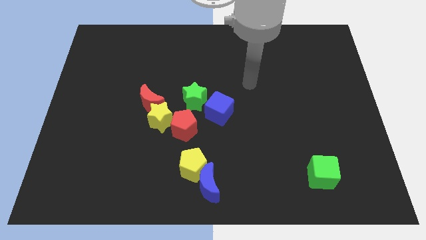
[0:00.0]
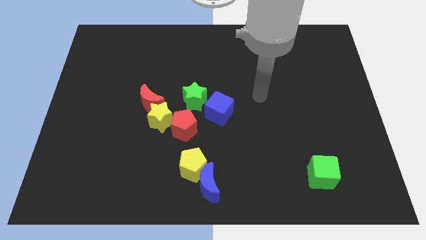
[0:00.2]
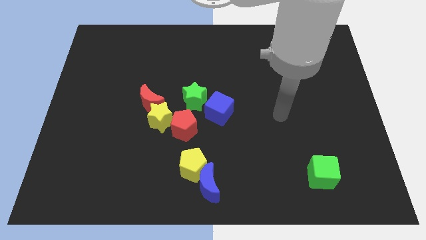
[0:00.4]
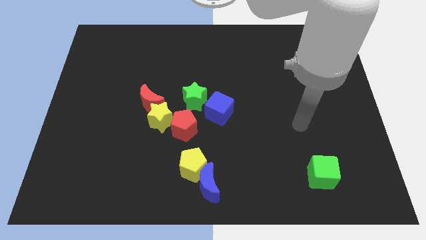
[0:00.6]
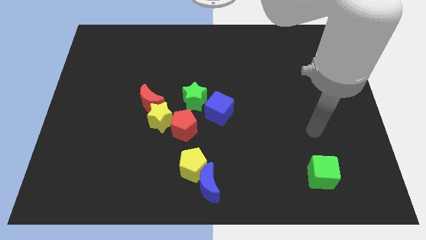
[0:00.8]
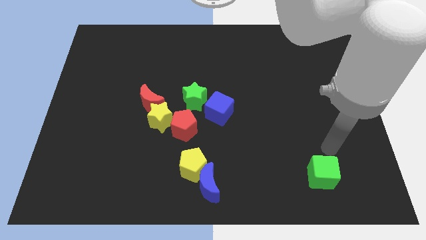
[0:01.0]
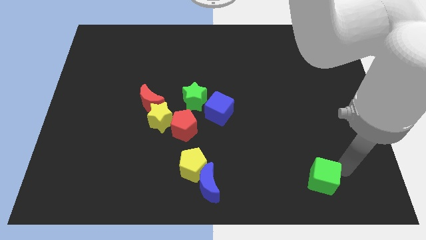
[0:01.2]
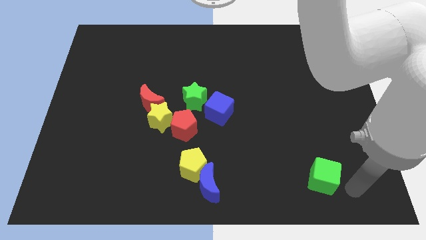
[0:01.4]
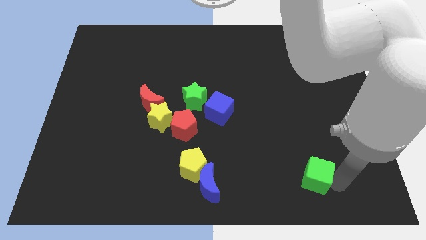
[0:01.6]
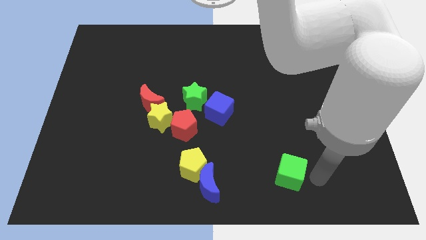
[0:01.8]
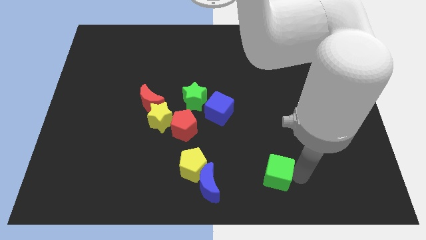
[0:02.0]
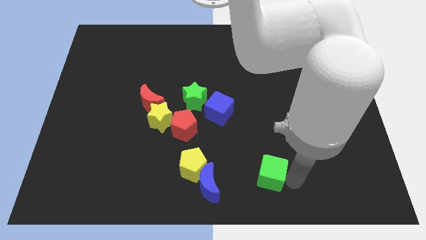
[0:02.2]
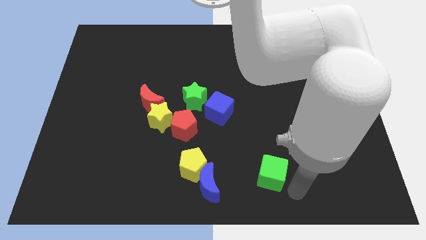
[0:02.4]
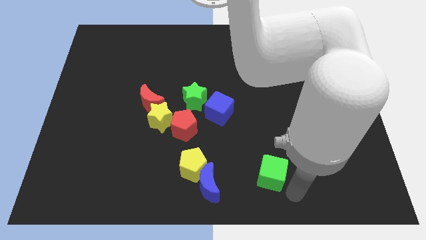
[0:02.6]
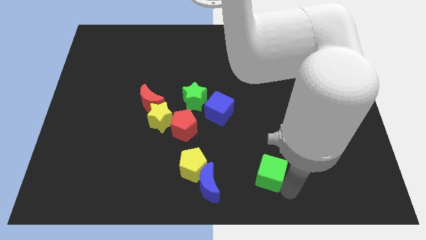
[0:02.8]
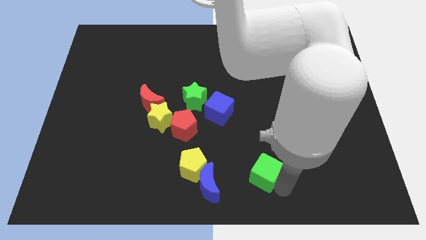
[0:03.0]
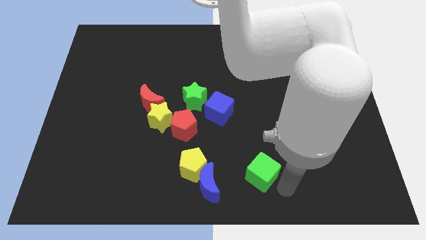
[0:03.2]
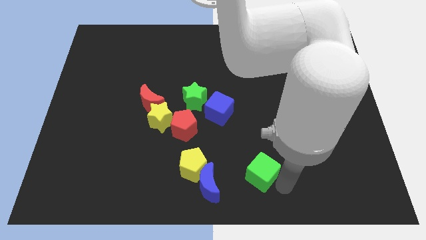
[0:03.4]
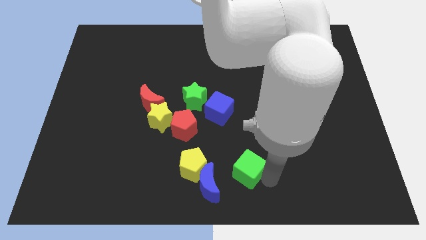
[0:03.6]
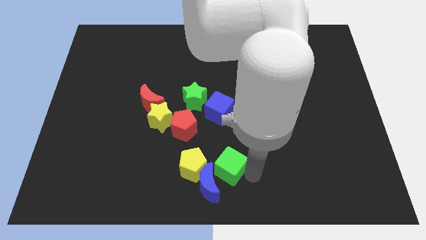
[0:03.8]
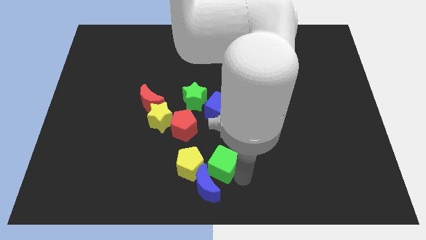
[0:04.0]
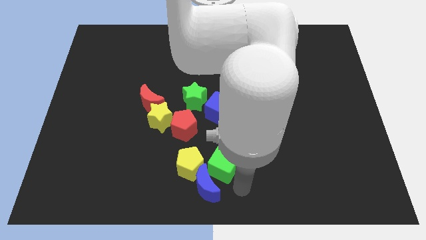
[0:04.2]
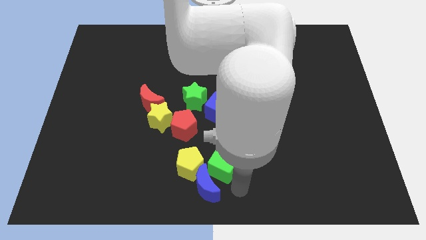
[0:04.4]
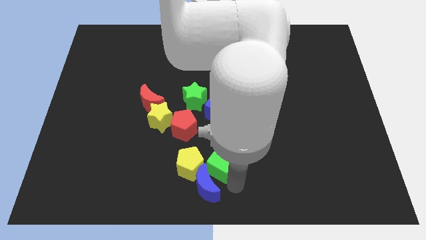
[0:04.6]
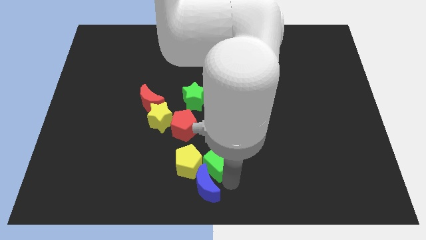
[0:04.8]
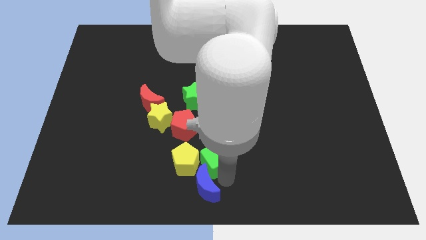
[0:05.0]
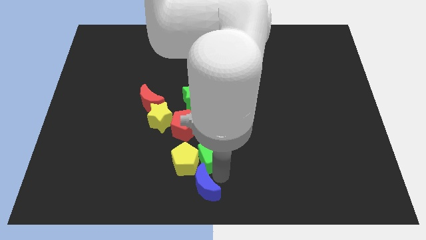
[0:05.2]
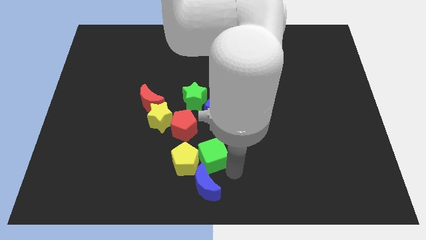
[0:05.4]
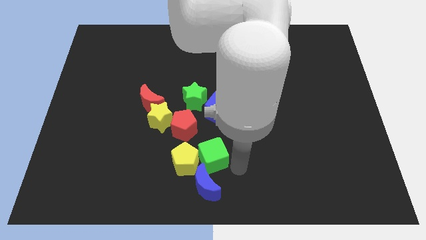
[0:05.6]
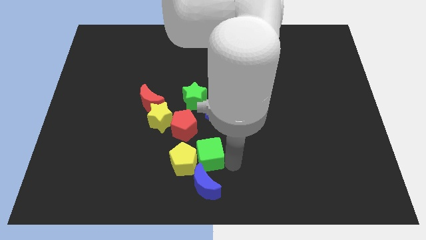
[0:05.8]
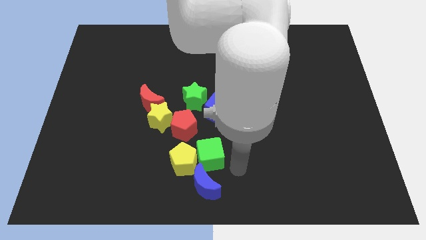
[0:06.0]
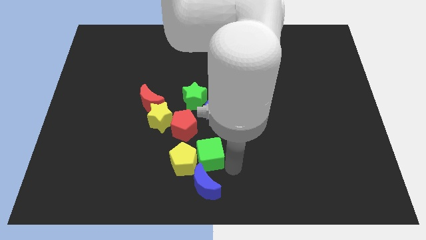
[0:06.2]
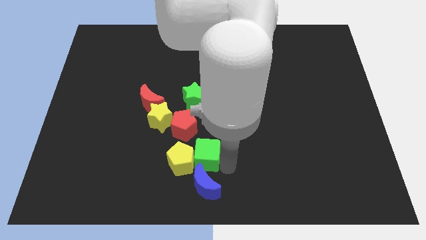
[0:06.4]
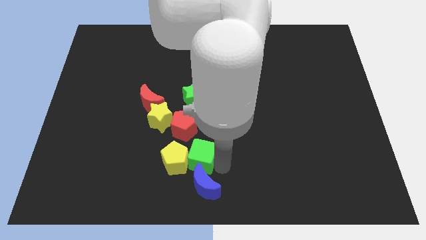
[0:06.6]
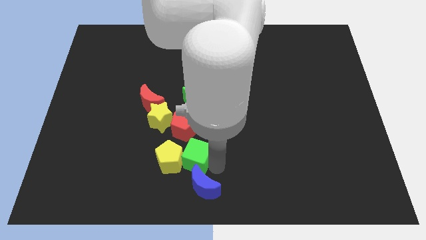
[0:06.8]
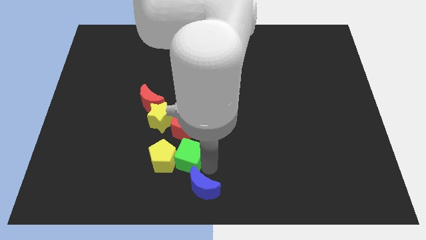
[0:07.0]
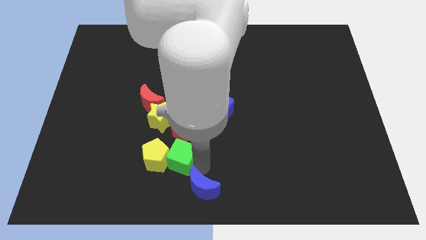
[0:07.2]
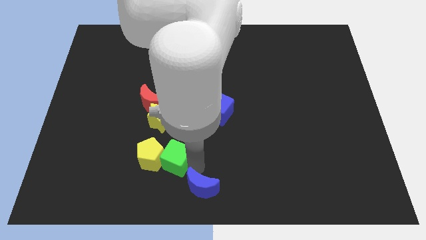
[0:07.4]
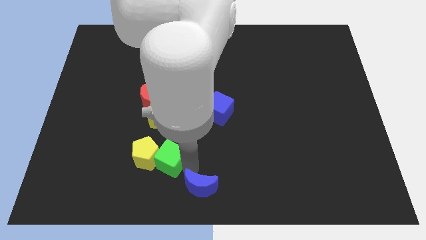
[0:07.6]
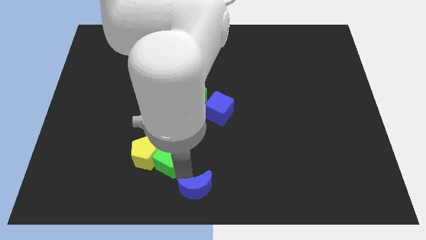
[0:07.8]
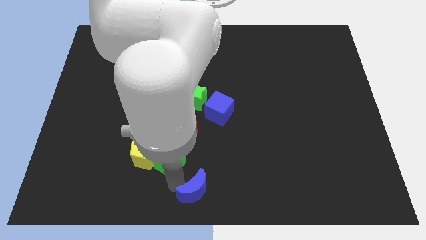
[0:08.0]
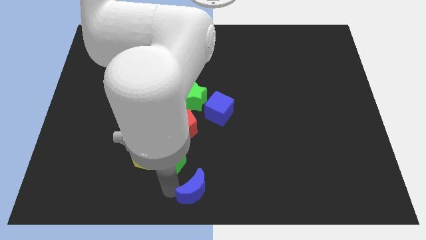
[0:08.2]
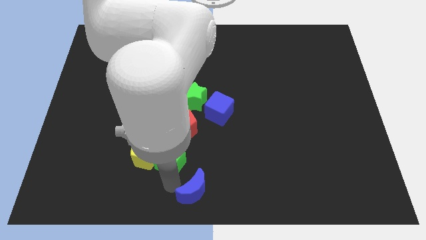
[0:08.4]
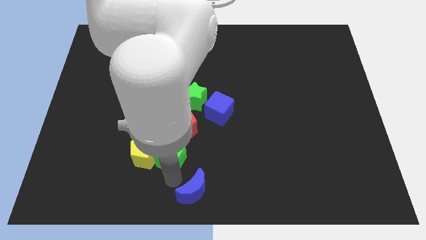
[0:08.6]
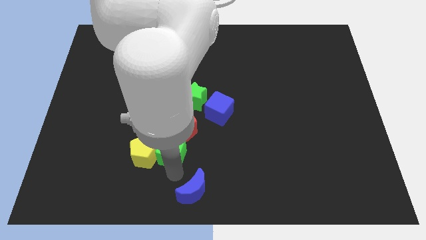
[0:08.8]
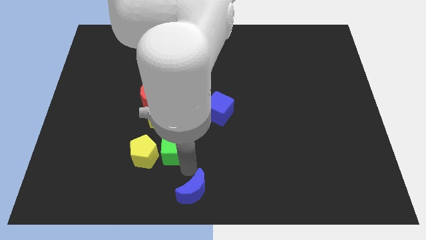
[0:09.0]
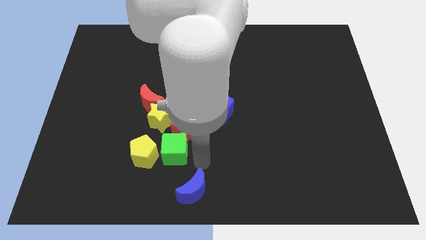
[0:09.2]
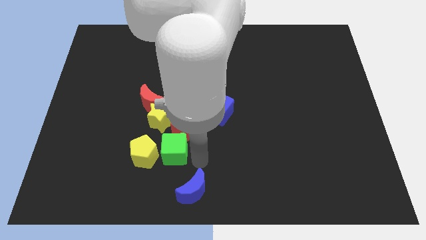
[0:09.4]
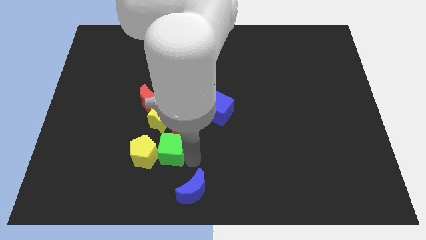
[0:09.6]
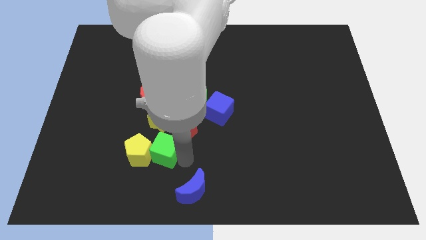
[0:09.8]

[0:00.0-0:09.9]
put the green cube below the red moon

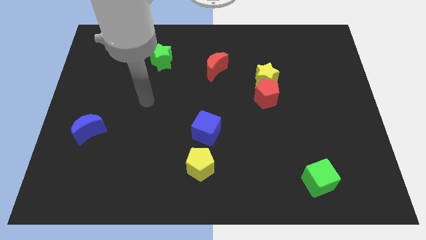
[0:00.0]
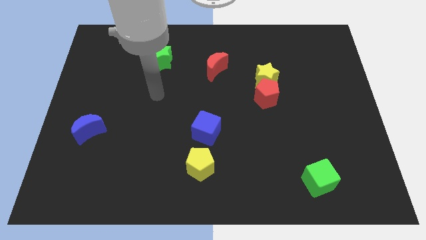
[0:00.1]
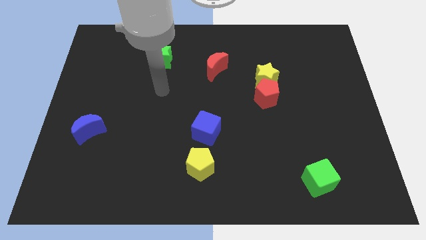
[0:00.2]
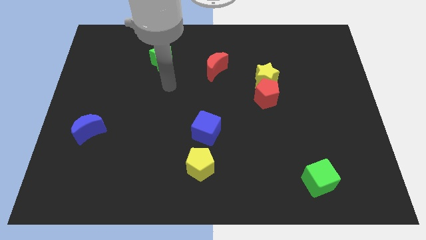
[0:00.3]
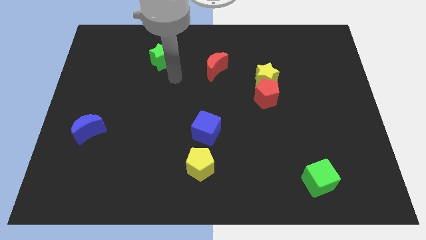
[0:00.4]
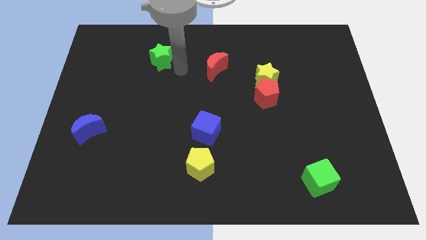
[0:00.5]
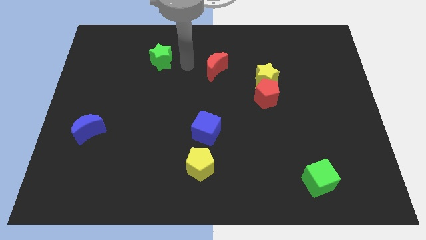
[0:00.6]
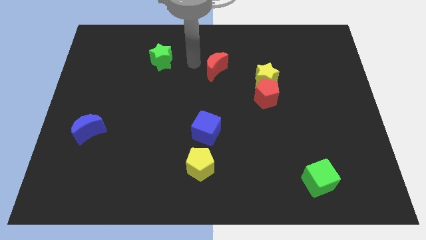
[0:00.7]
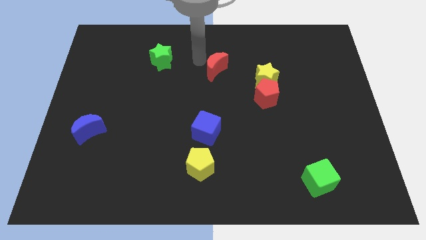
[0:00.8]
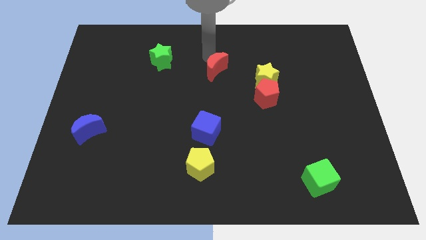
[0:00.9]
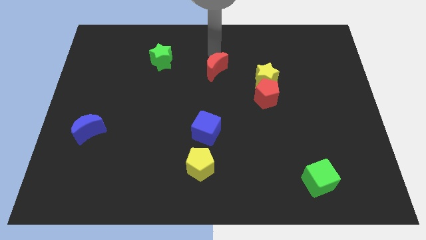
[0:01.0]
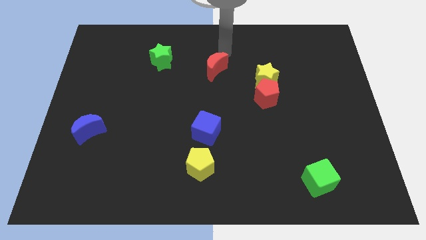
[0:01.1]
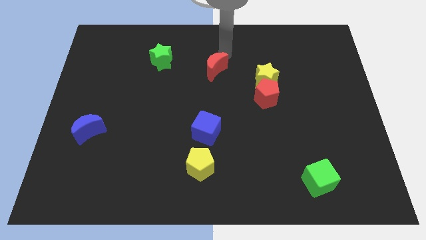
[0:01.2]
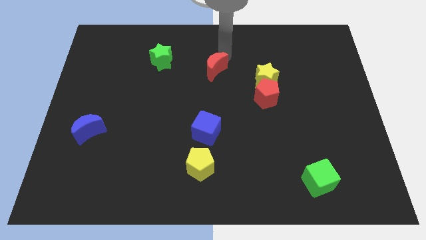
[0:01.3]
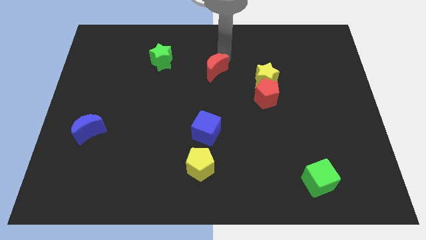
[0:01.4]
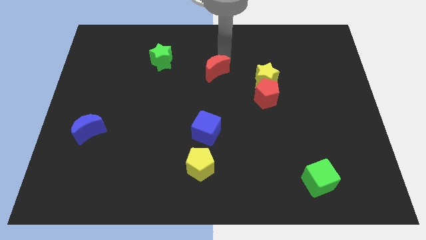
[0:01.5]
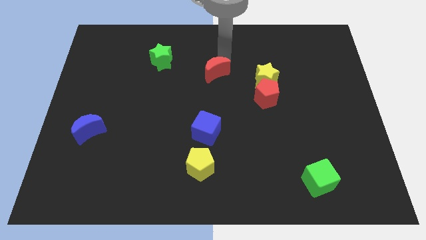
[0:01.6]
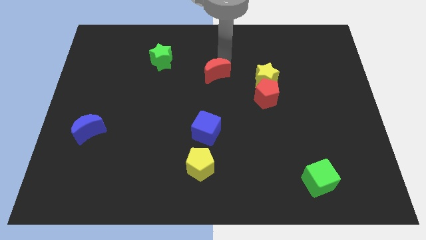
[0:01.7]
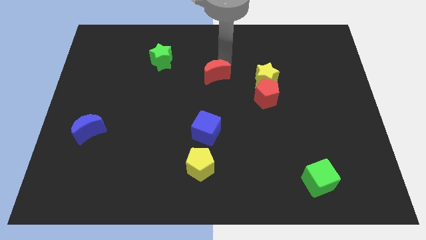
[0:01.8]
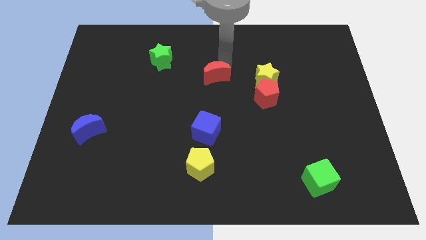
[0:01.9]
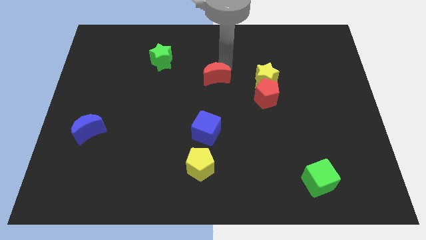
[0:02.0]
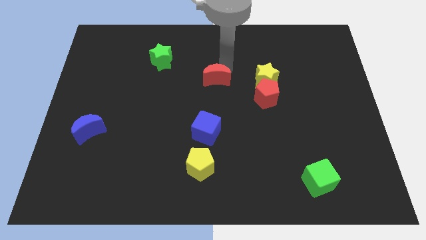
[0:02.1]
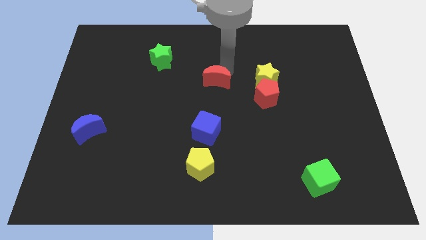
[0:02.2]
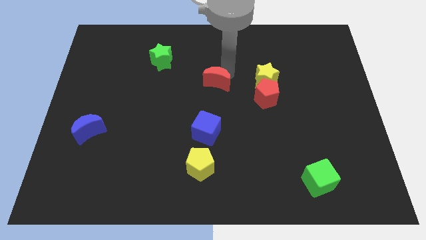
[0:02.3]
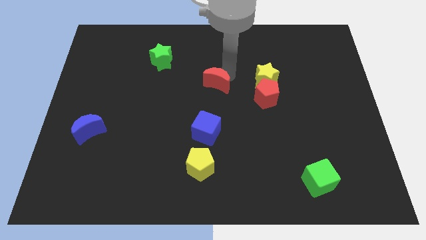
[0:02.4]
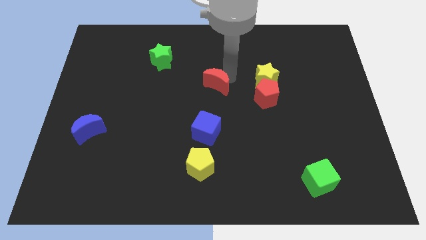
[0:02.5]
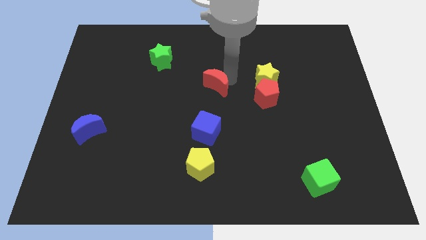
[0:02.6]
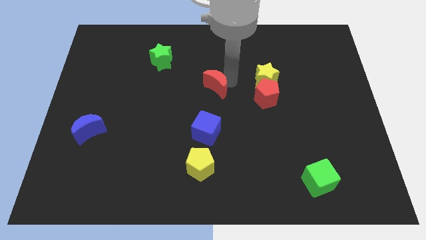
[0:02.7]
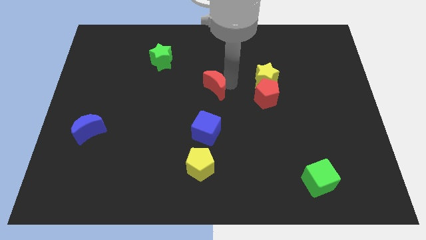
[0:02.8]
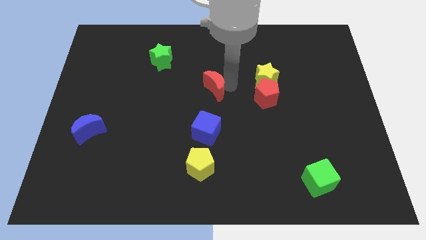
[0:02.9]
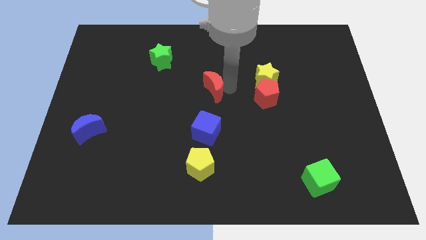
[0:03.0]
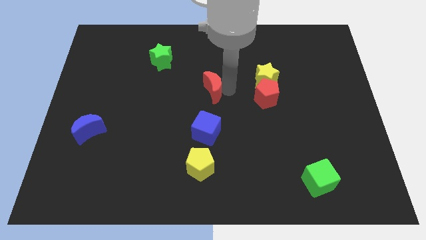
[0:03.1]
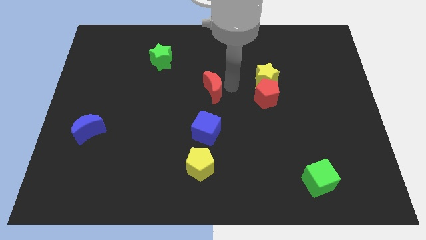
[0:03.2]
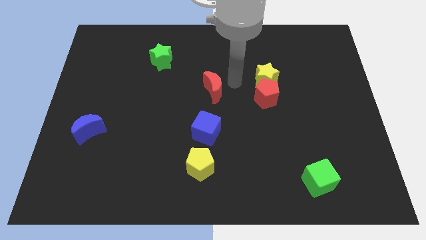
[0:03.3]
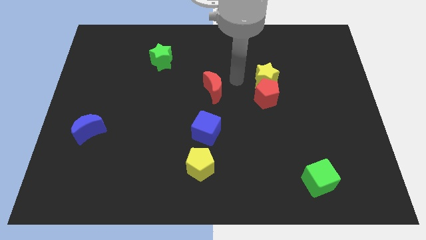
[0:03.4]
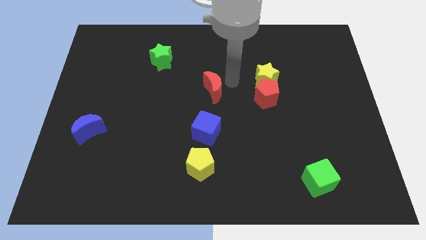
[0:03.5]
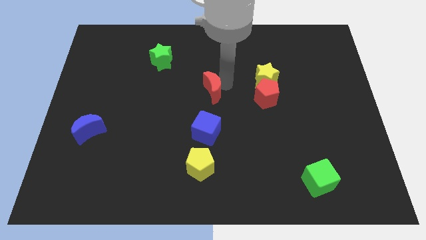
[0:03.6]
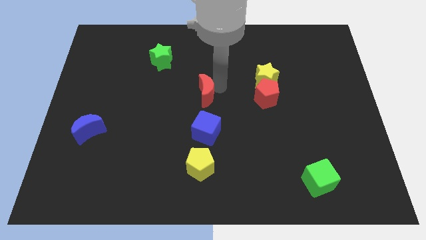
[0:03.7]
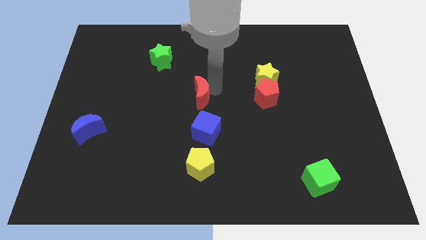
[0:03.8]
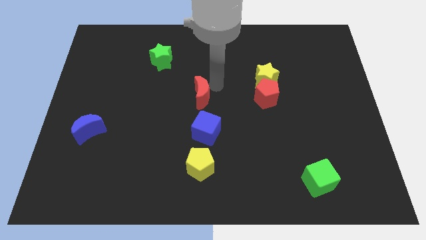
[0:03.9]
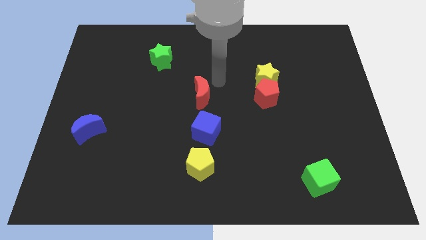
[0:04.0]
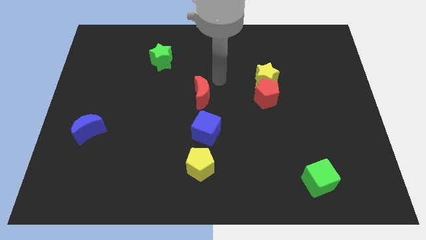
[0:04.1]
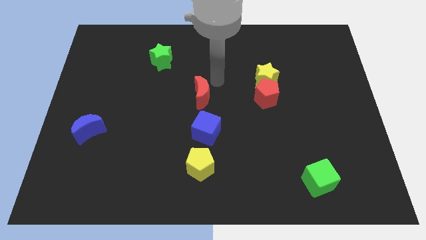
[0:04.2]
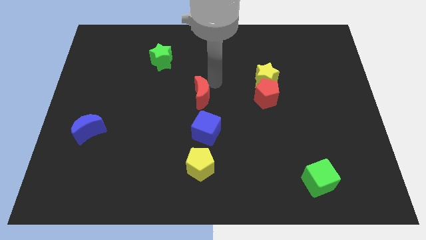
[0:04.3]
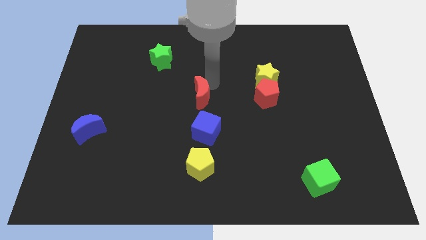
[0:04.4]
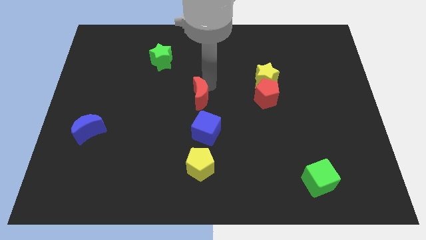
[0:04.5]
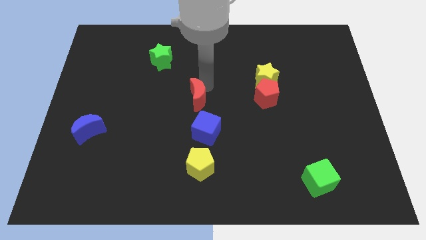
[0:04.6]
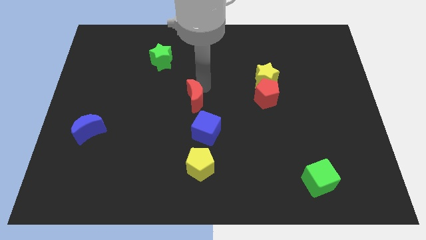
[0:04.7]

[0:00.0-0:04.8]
put the red moon to the top left side of the blue cube
